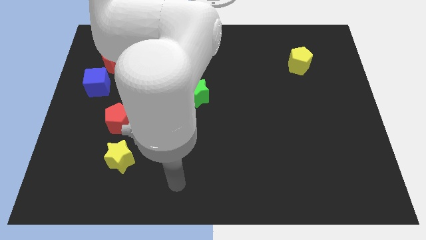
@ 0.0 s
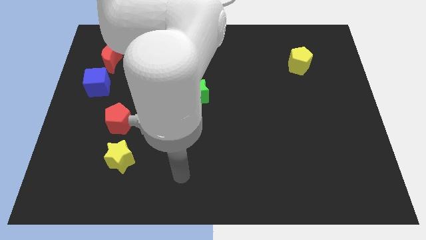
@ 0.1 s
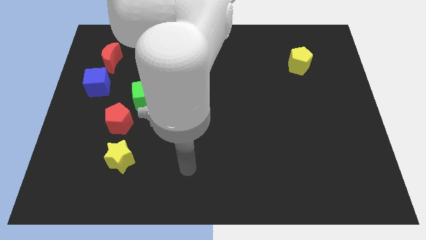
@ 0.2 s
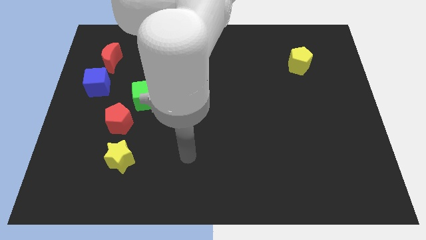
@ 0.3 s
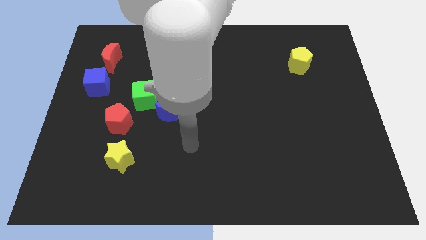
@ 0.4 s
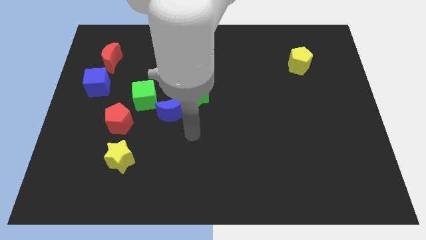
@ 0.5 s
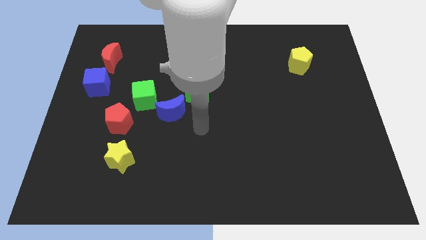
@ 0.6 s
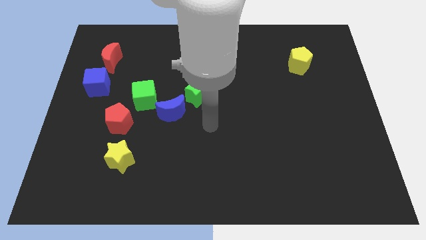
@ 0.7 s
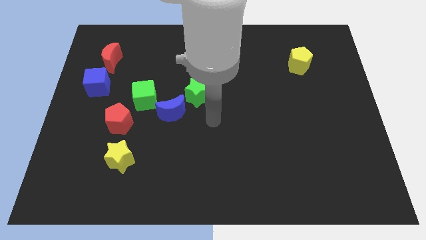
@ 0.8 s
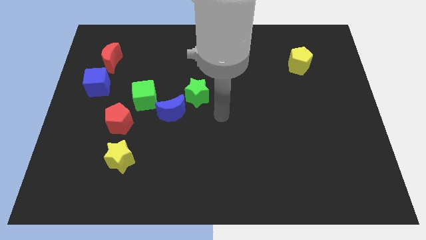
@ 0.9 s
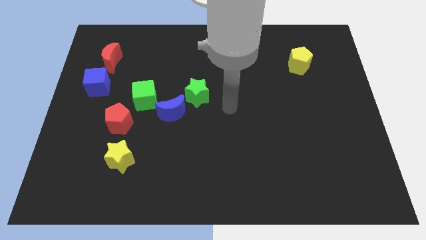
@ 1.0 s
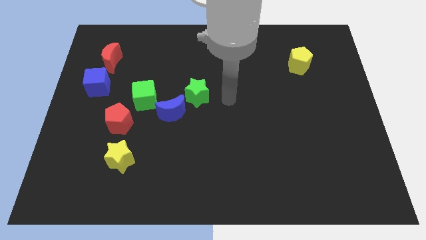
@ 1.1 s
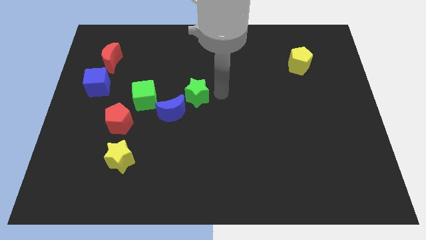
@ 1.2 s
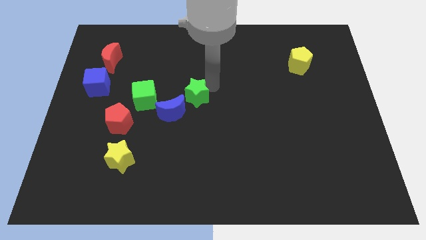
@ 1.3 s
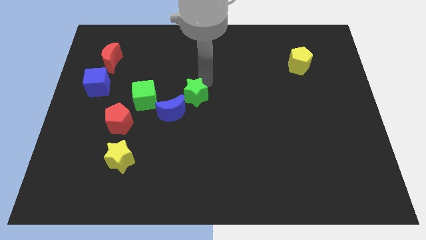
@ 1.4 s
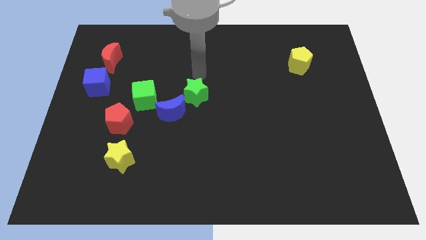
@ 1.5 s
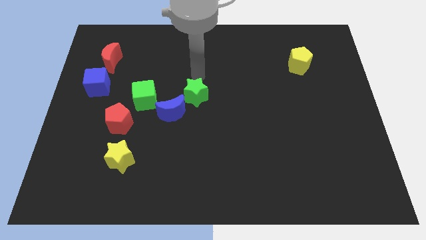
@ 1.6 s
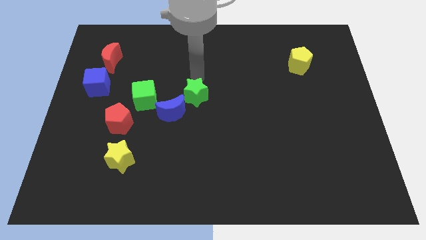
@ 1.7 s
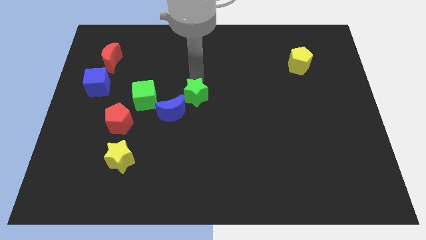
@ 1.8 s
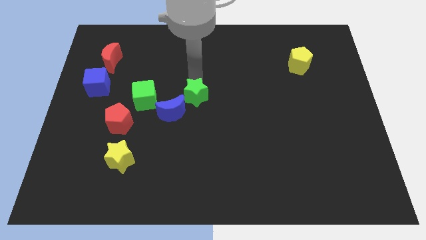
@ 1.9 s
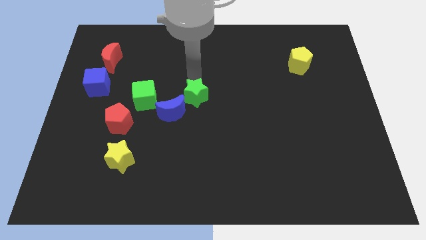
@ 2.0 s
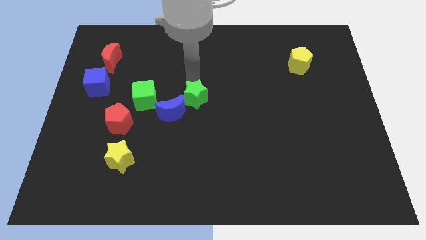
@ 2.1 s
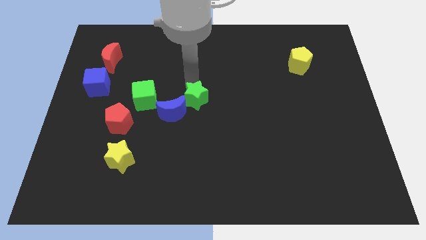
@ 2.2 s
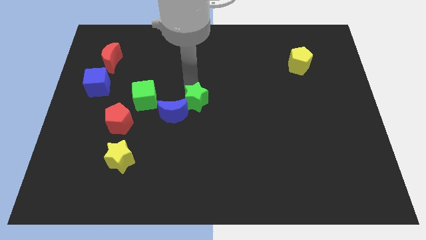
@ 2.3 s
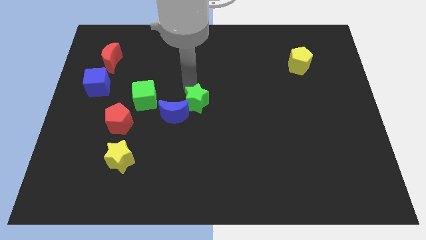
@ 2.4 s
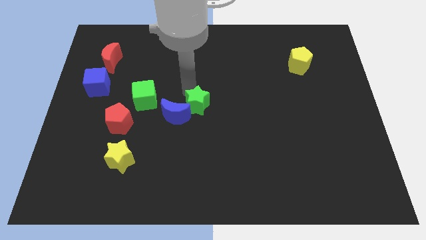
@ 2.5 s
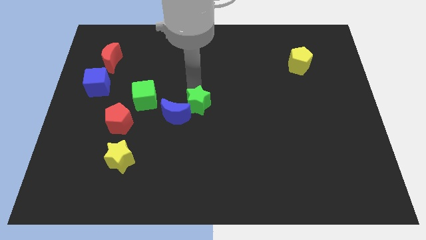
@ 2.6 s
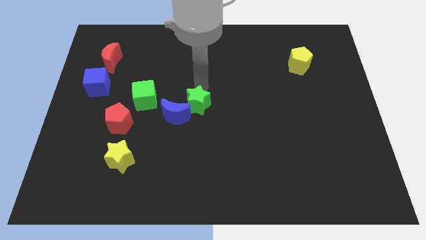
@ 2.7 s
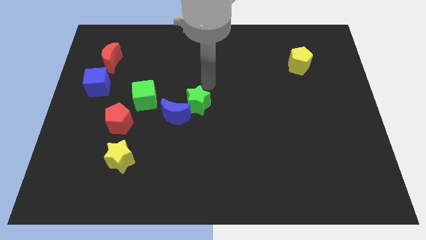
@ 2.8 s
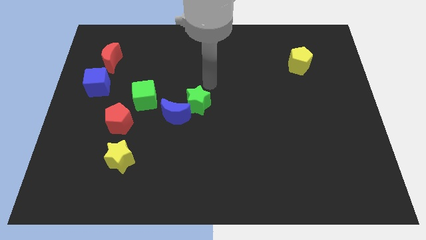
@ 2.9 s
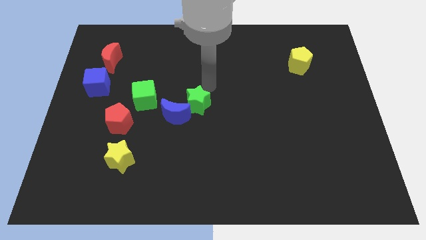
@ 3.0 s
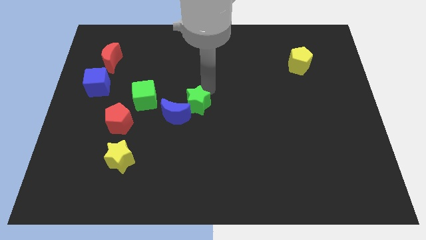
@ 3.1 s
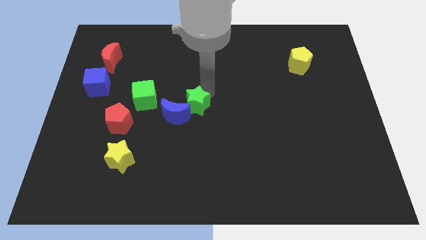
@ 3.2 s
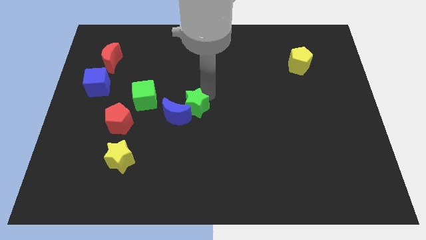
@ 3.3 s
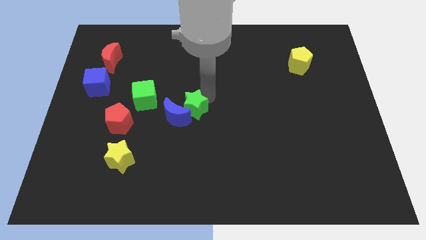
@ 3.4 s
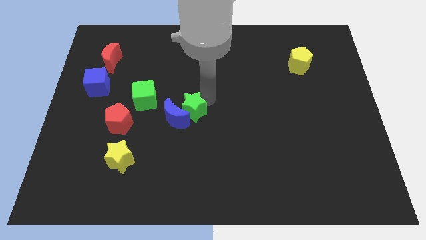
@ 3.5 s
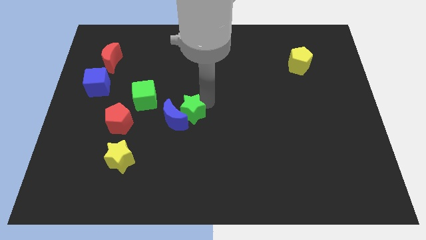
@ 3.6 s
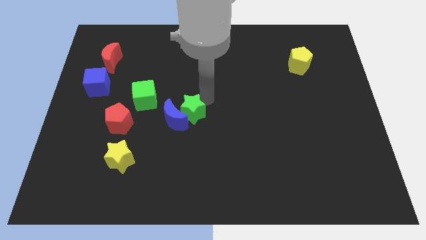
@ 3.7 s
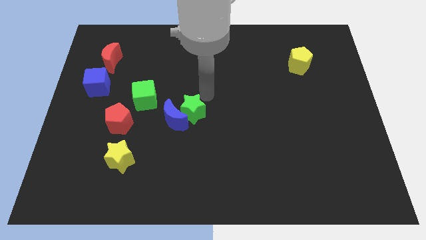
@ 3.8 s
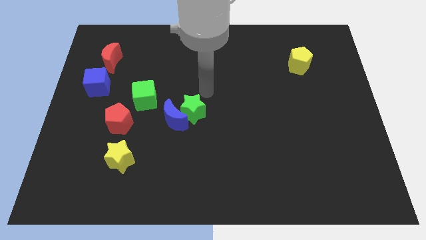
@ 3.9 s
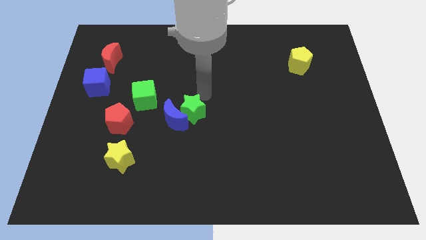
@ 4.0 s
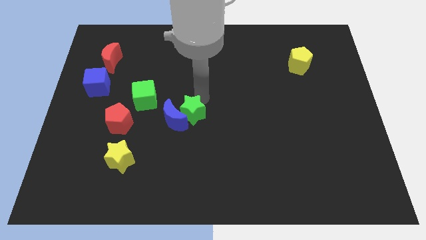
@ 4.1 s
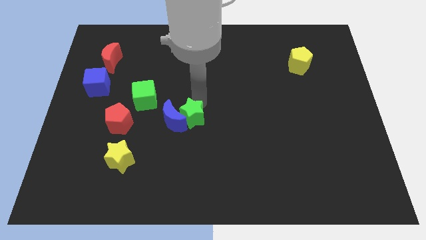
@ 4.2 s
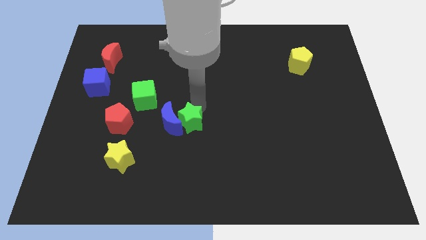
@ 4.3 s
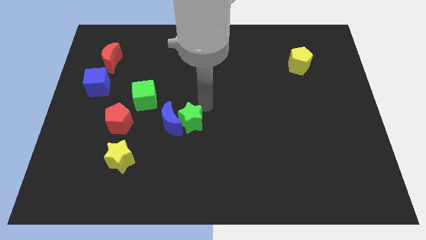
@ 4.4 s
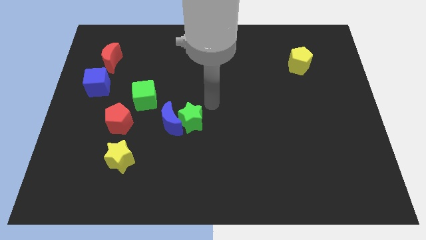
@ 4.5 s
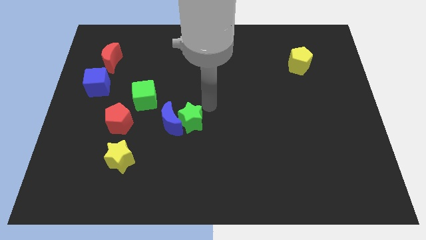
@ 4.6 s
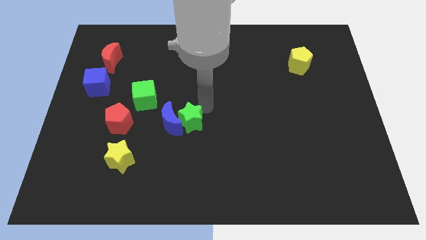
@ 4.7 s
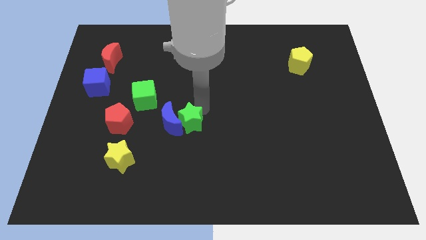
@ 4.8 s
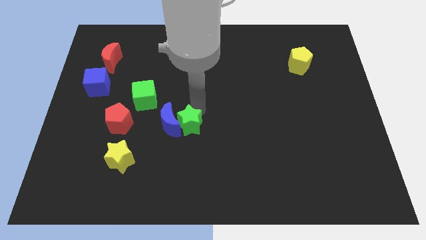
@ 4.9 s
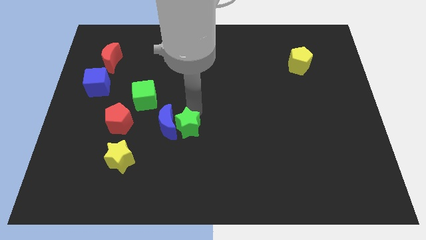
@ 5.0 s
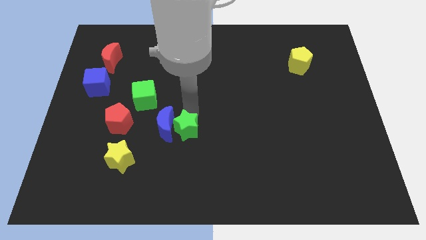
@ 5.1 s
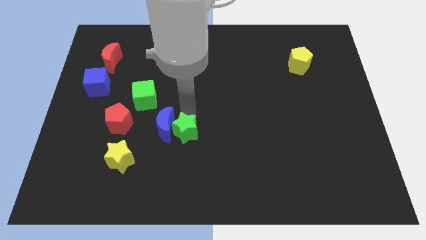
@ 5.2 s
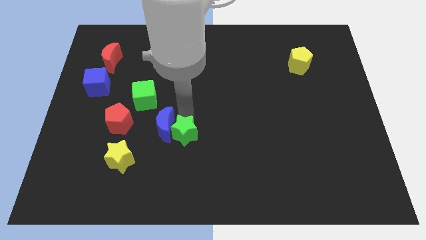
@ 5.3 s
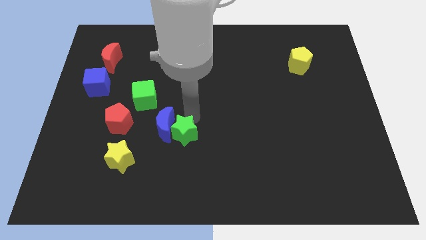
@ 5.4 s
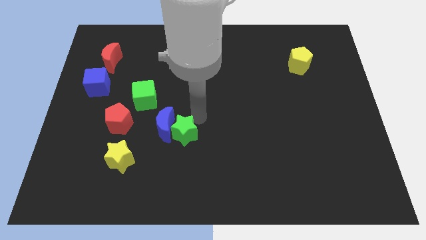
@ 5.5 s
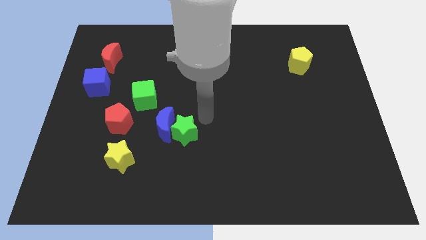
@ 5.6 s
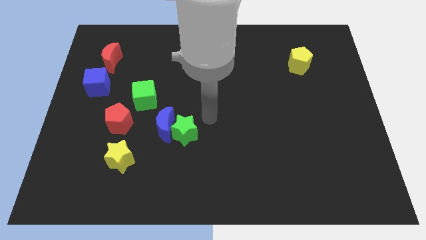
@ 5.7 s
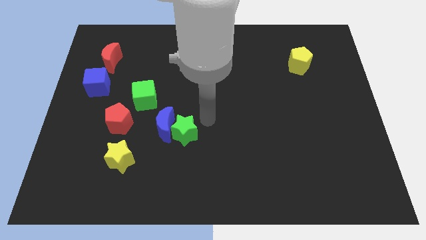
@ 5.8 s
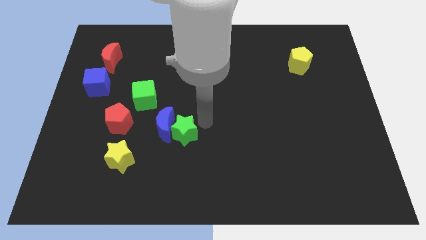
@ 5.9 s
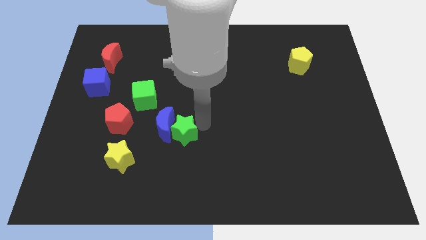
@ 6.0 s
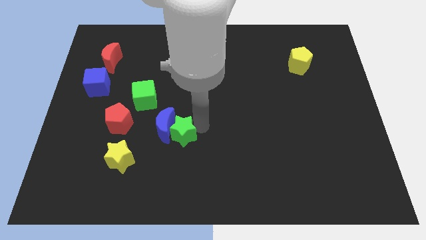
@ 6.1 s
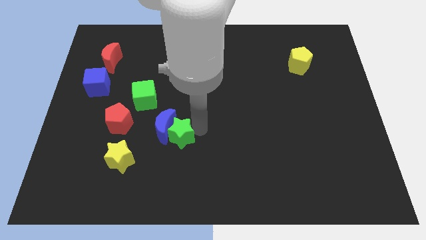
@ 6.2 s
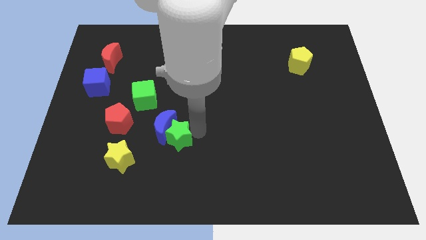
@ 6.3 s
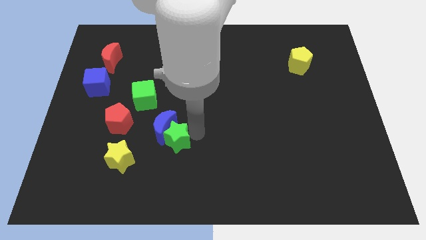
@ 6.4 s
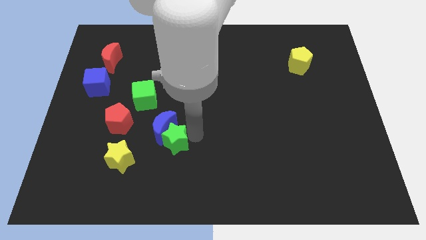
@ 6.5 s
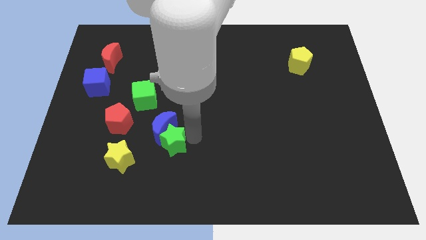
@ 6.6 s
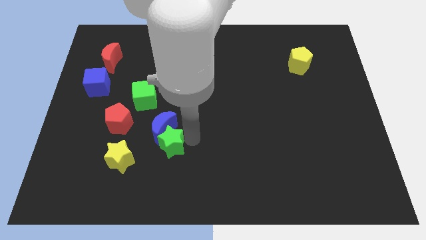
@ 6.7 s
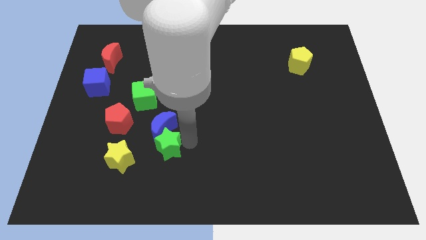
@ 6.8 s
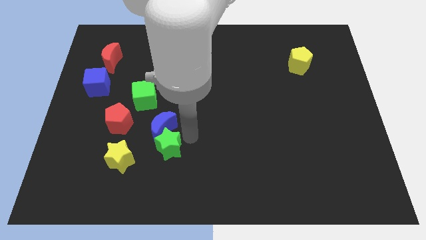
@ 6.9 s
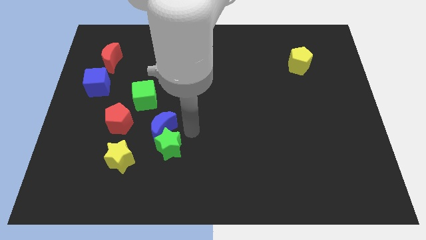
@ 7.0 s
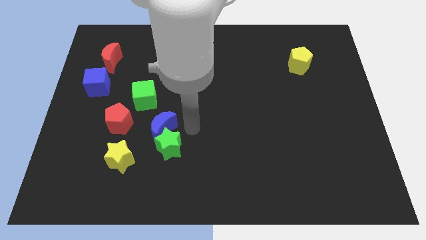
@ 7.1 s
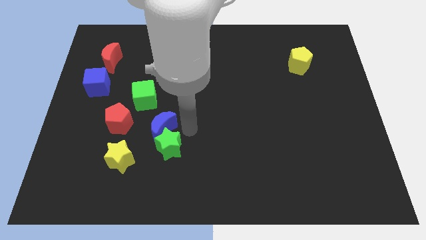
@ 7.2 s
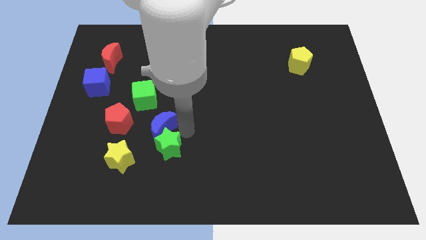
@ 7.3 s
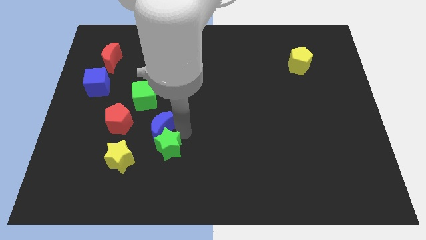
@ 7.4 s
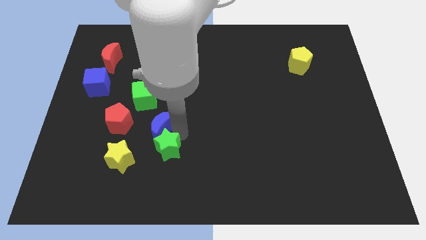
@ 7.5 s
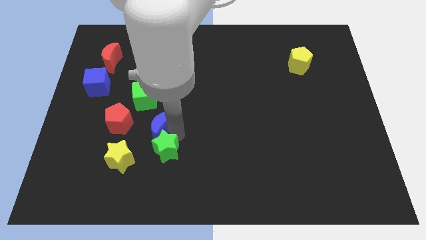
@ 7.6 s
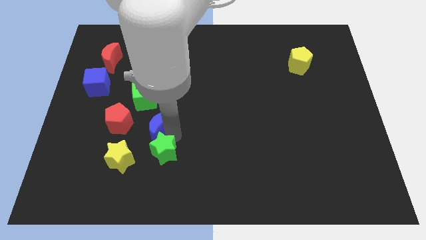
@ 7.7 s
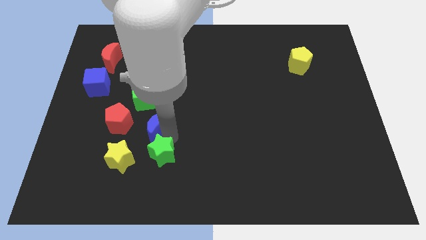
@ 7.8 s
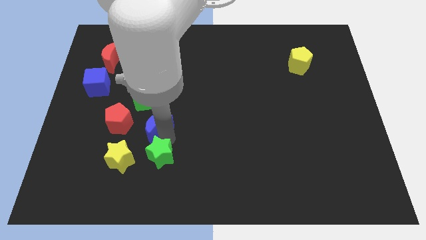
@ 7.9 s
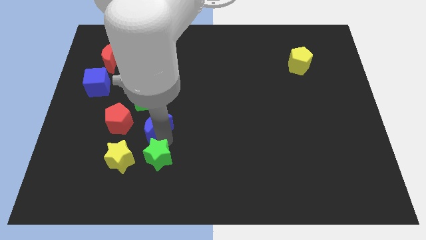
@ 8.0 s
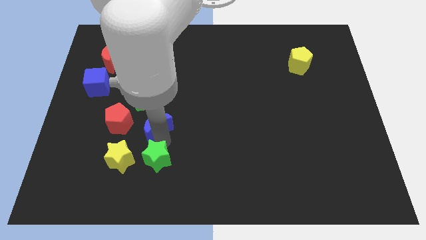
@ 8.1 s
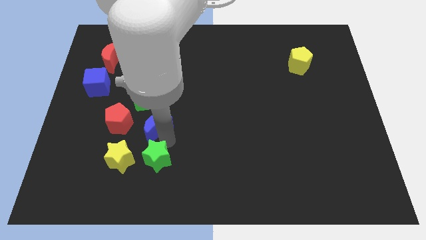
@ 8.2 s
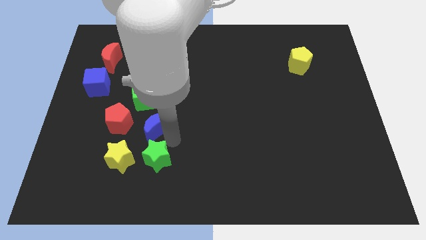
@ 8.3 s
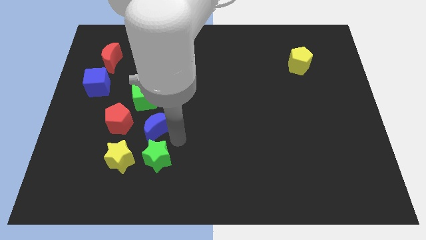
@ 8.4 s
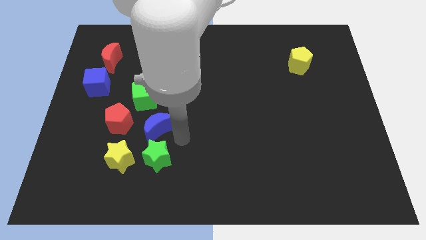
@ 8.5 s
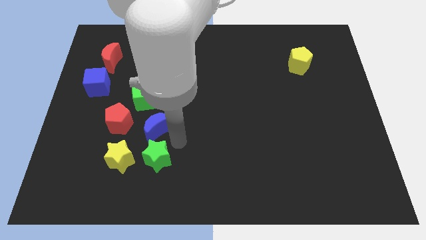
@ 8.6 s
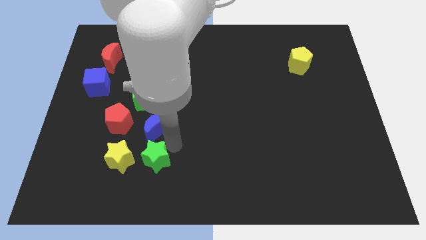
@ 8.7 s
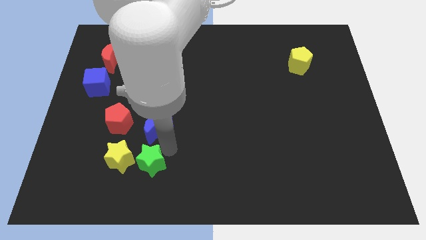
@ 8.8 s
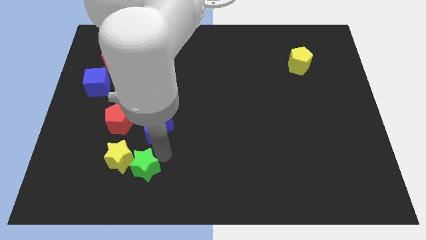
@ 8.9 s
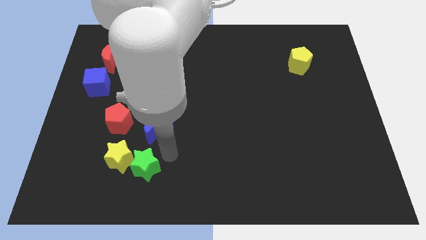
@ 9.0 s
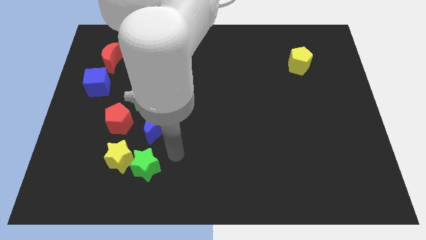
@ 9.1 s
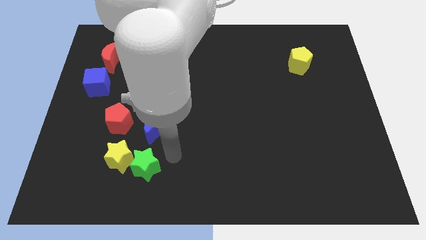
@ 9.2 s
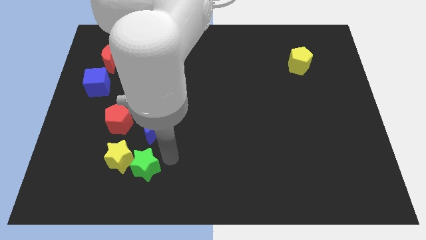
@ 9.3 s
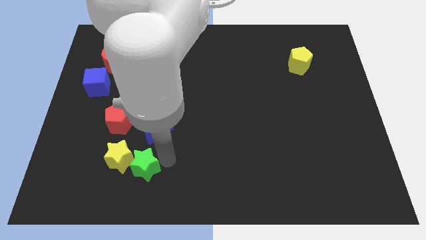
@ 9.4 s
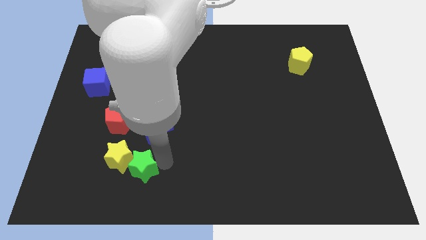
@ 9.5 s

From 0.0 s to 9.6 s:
move the green star down and left
